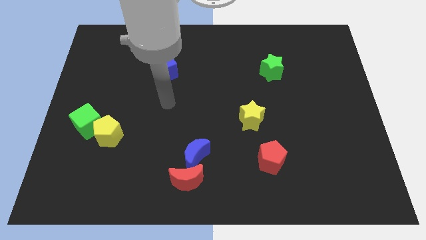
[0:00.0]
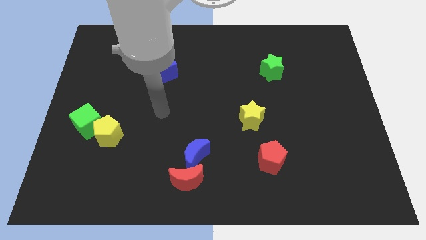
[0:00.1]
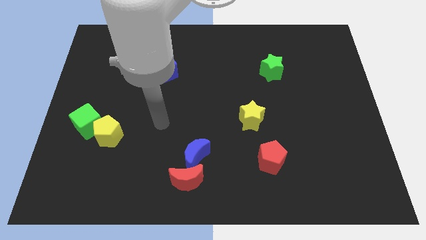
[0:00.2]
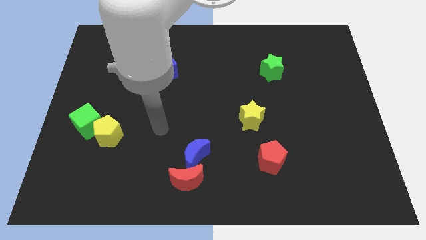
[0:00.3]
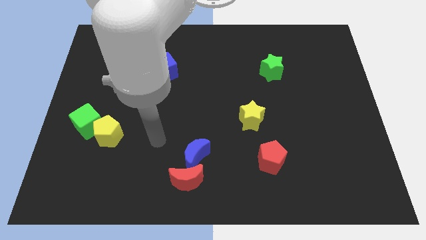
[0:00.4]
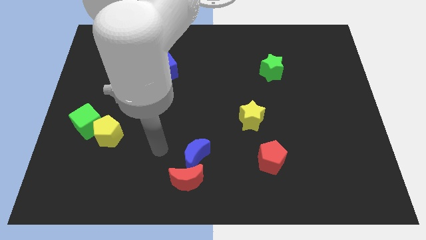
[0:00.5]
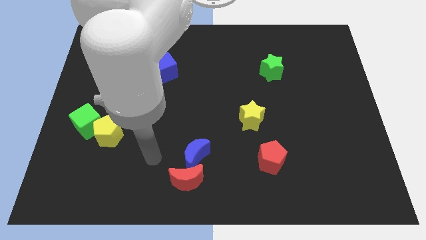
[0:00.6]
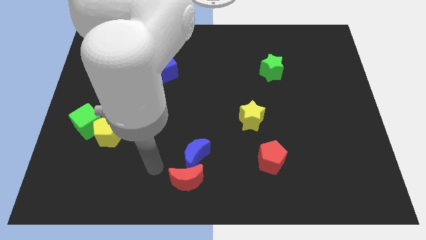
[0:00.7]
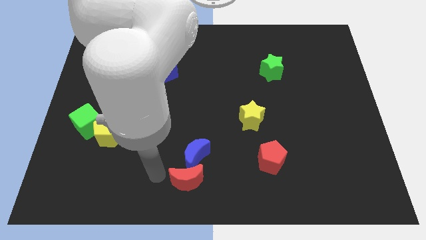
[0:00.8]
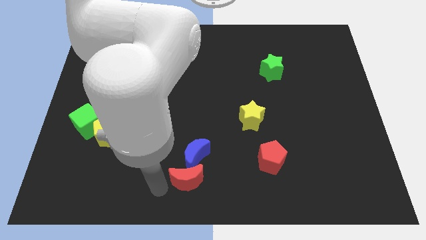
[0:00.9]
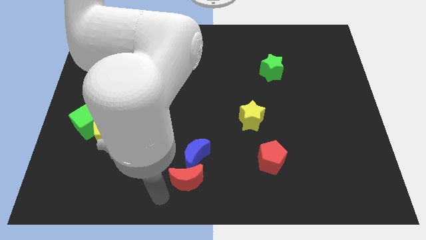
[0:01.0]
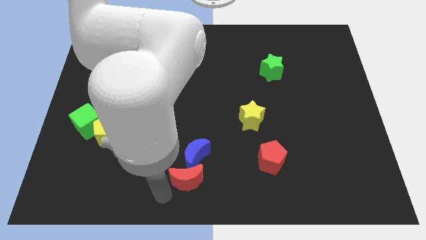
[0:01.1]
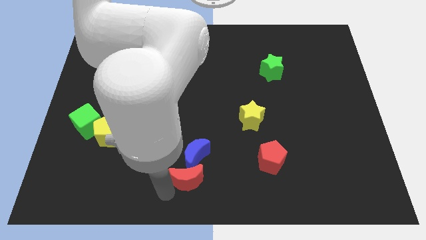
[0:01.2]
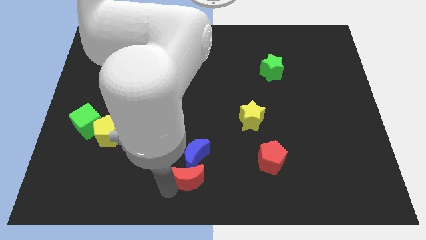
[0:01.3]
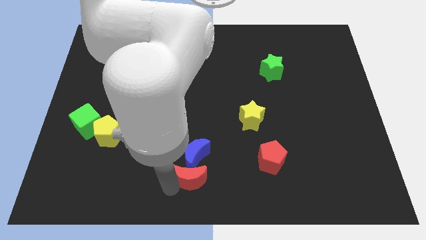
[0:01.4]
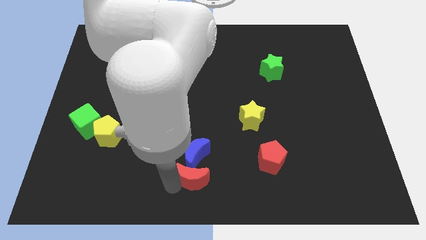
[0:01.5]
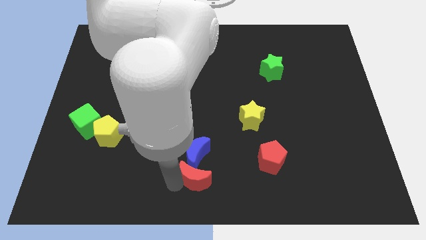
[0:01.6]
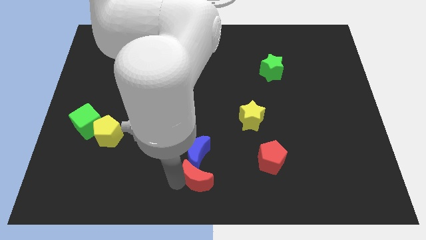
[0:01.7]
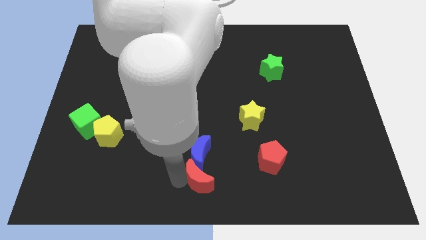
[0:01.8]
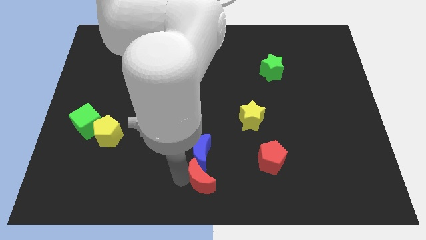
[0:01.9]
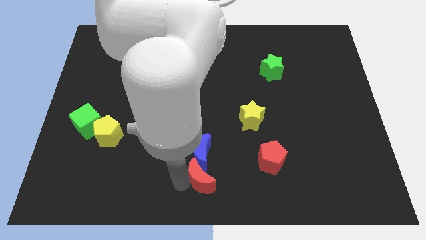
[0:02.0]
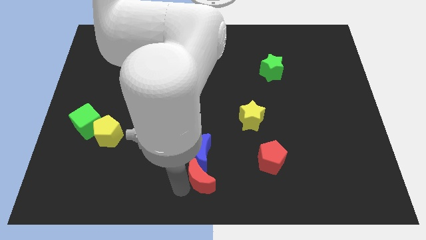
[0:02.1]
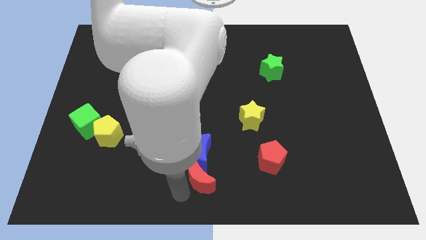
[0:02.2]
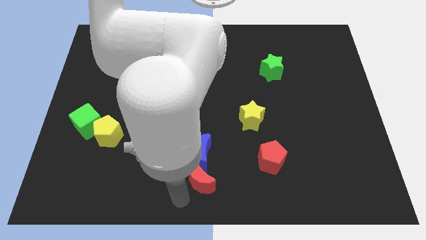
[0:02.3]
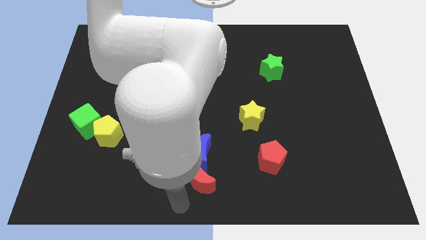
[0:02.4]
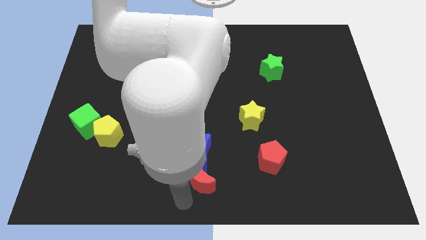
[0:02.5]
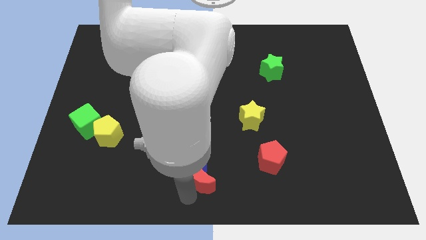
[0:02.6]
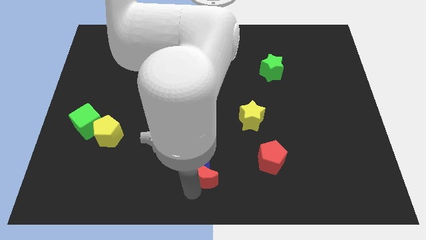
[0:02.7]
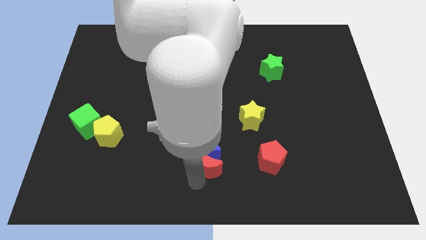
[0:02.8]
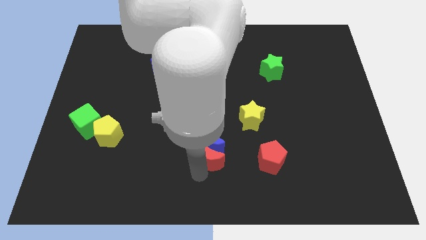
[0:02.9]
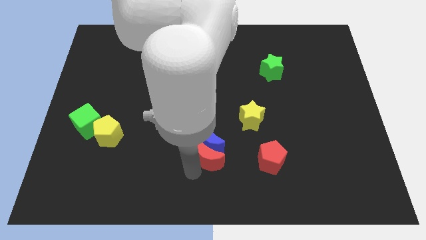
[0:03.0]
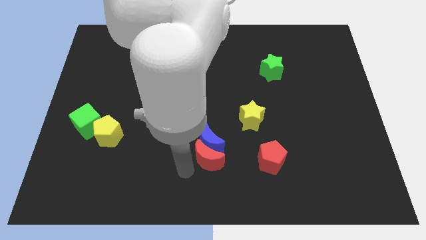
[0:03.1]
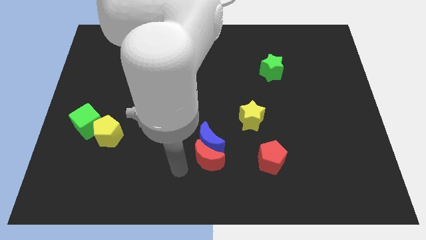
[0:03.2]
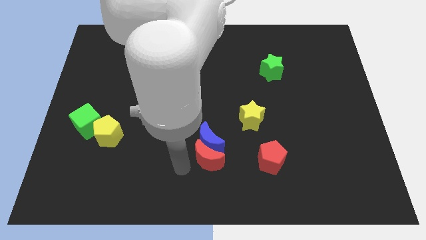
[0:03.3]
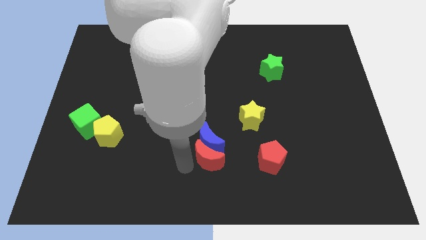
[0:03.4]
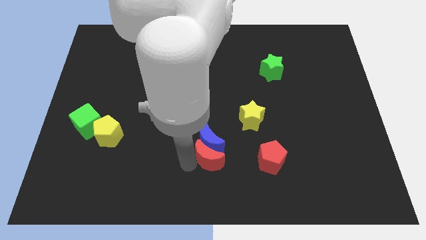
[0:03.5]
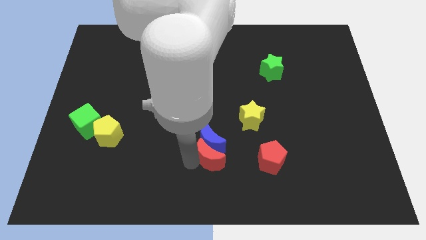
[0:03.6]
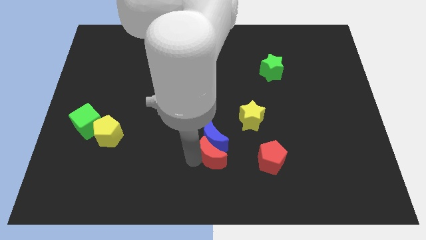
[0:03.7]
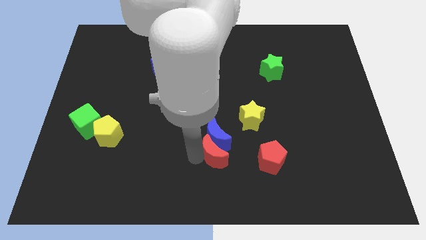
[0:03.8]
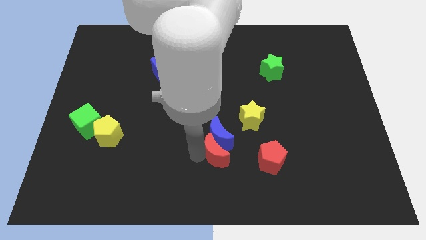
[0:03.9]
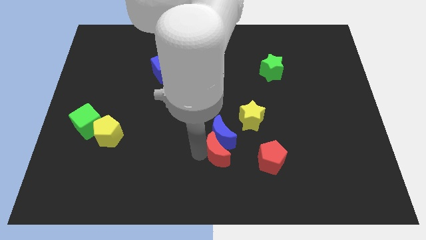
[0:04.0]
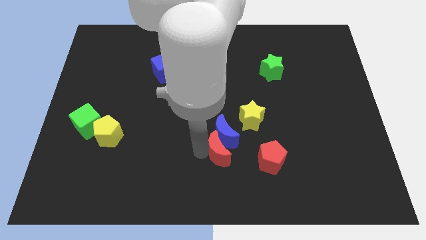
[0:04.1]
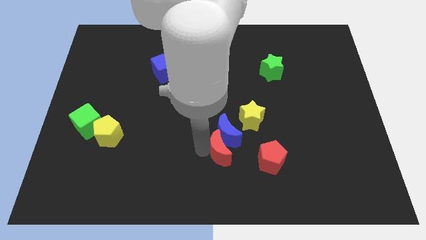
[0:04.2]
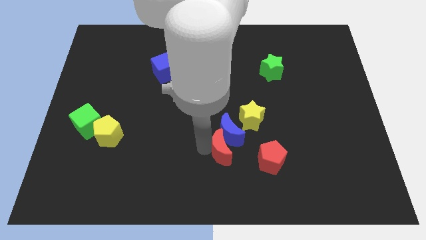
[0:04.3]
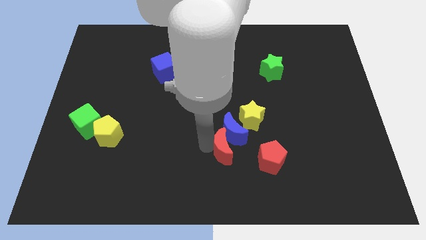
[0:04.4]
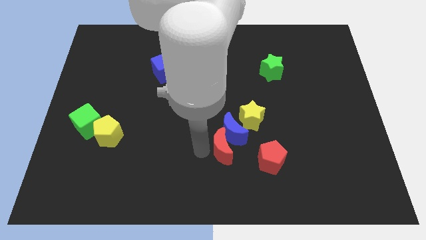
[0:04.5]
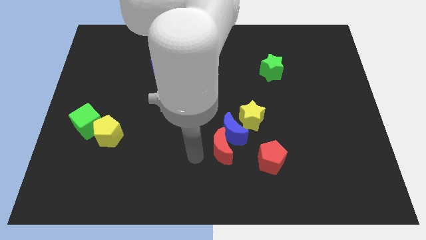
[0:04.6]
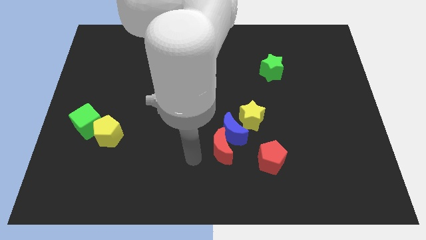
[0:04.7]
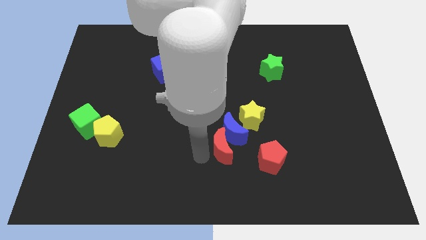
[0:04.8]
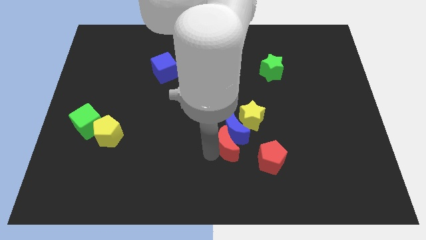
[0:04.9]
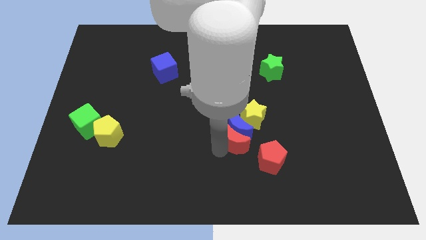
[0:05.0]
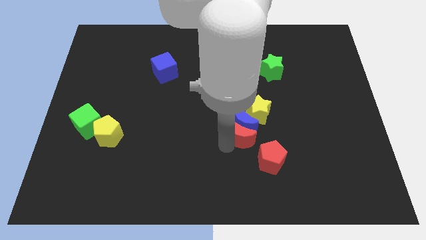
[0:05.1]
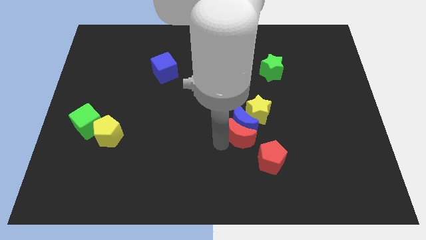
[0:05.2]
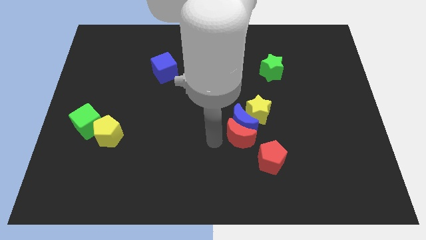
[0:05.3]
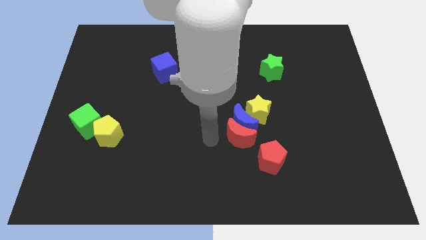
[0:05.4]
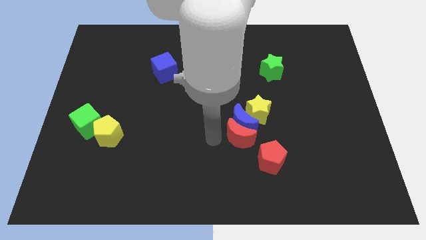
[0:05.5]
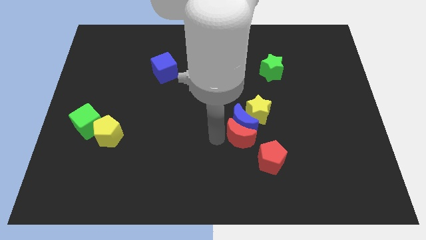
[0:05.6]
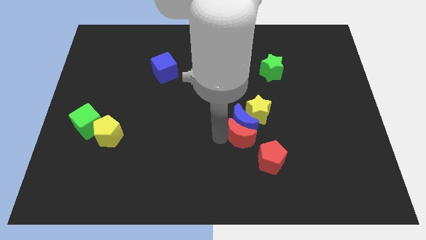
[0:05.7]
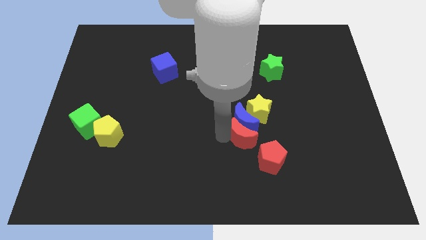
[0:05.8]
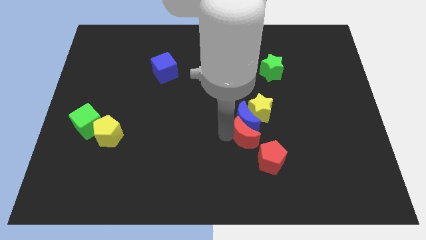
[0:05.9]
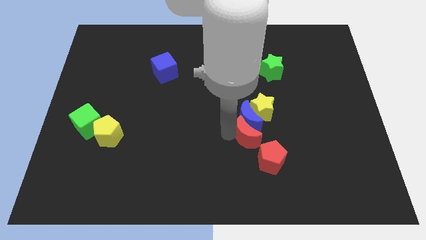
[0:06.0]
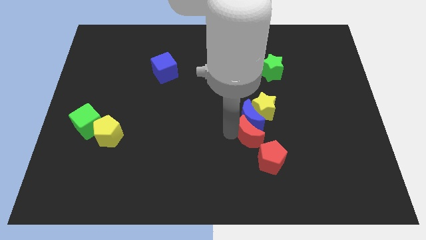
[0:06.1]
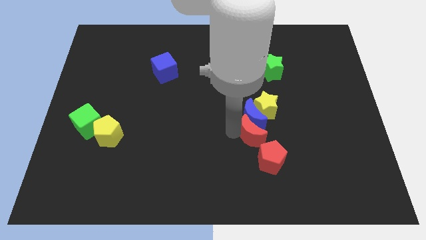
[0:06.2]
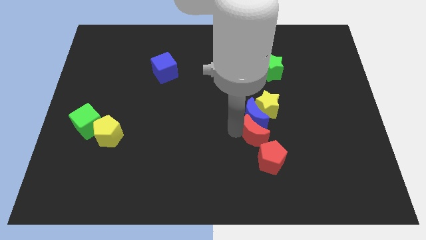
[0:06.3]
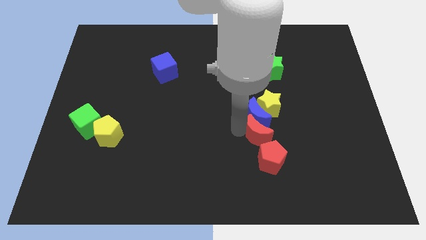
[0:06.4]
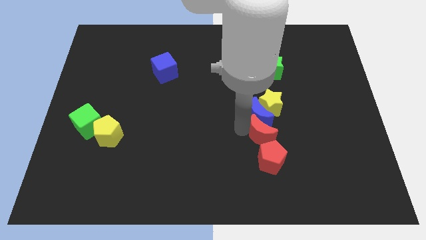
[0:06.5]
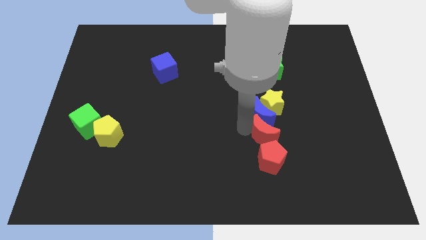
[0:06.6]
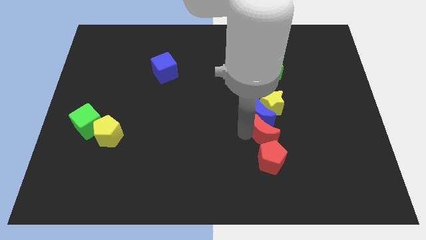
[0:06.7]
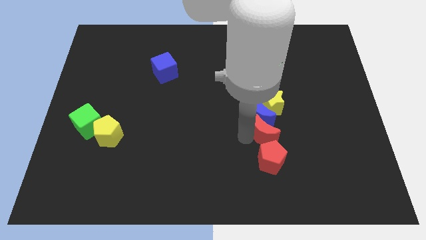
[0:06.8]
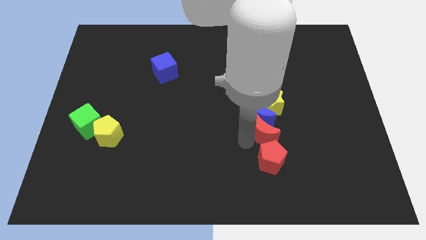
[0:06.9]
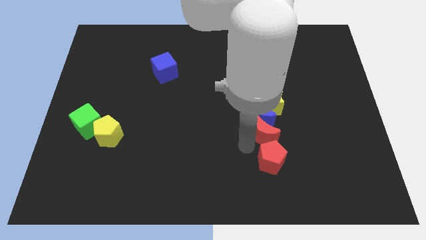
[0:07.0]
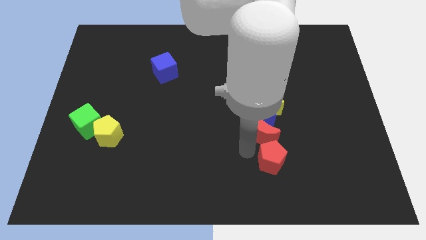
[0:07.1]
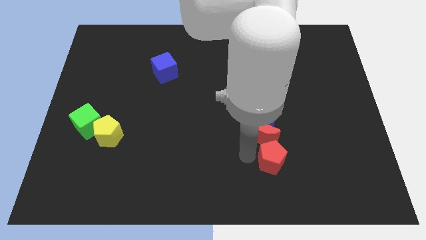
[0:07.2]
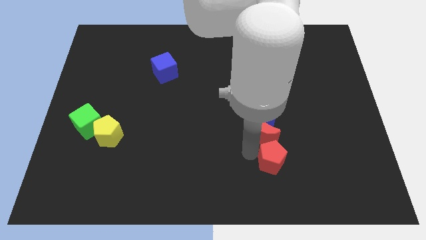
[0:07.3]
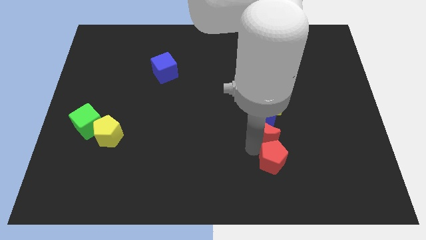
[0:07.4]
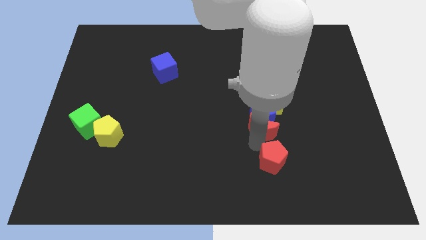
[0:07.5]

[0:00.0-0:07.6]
slide the red moon upwards and then right

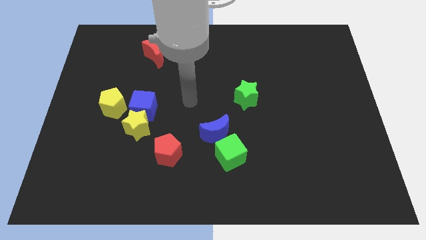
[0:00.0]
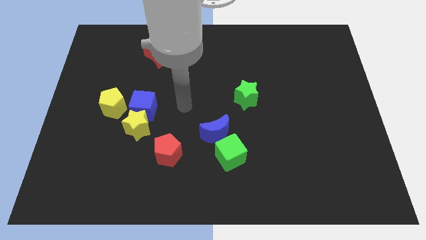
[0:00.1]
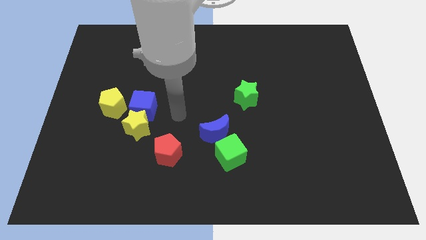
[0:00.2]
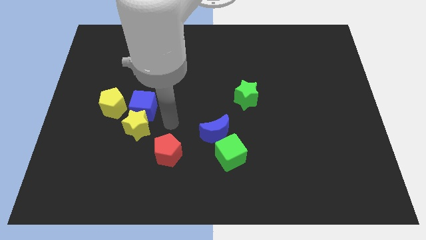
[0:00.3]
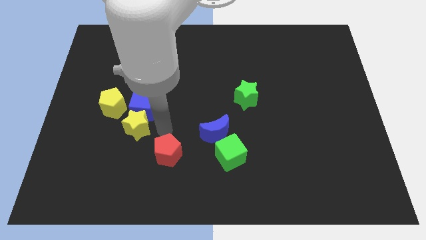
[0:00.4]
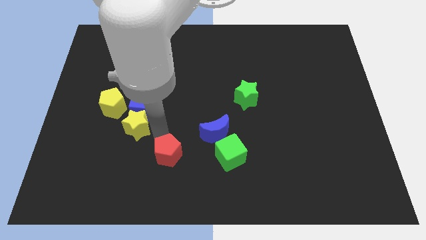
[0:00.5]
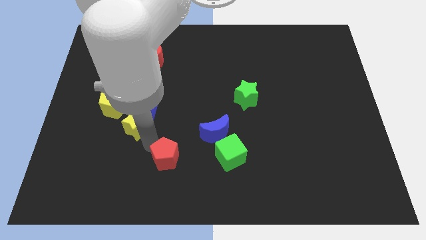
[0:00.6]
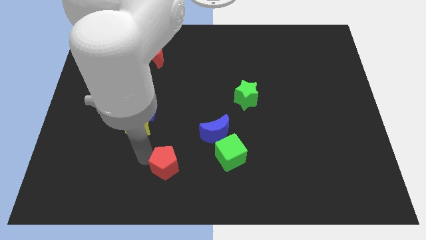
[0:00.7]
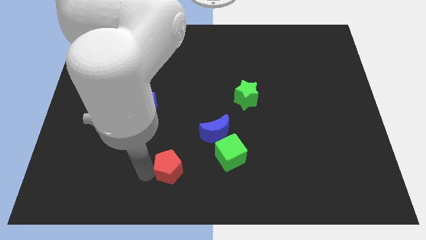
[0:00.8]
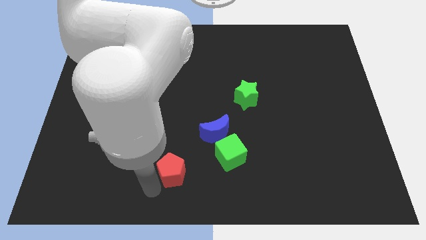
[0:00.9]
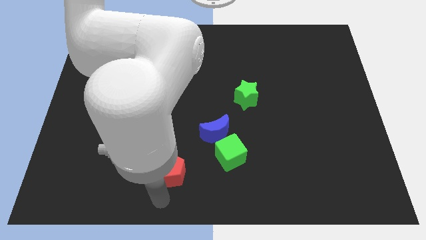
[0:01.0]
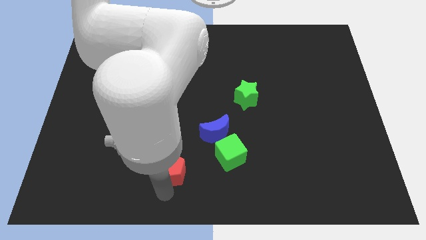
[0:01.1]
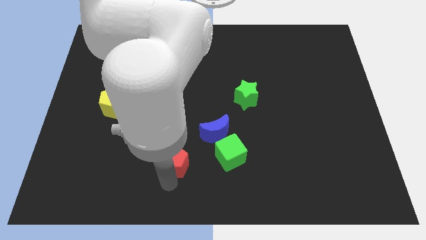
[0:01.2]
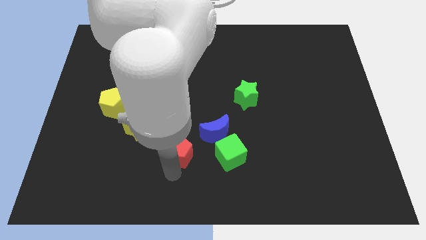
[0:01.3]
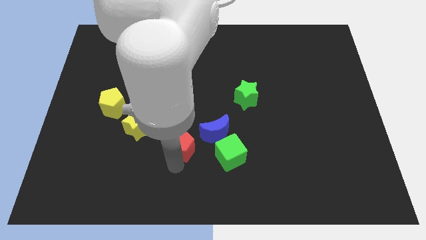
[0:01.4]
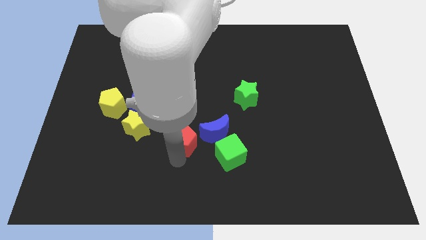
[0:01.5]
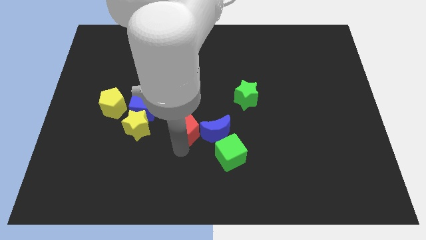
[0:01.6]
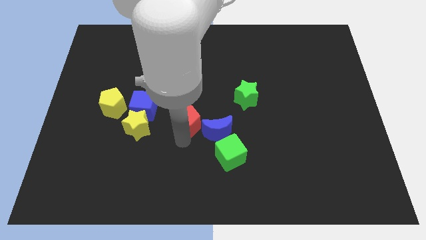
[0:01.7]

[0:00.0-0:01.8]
slightly move the red pentagon diagonally up and right
